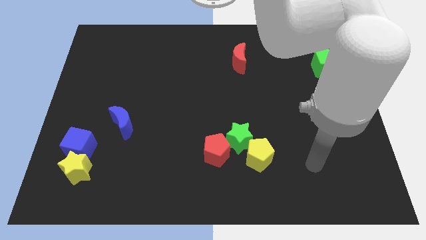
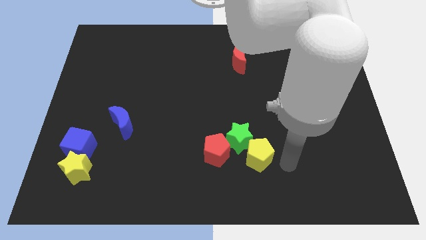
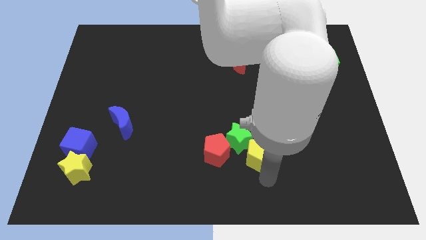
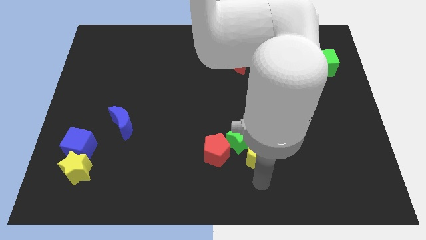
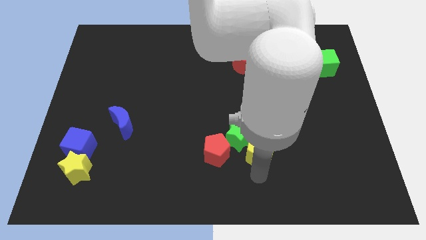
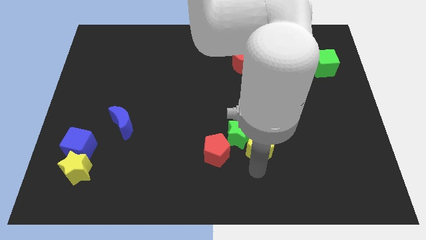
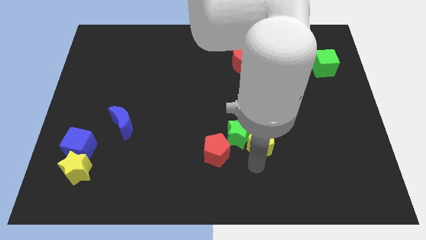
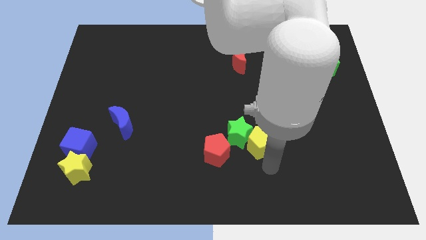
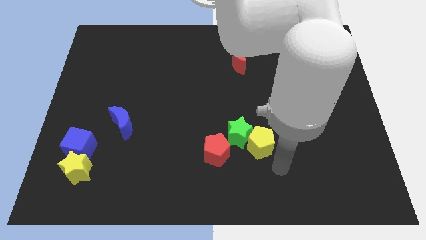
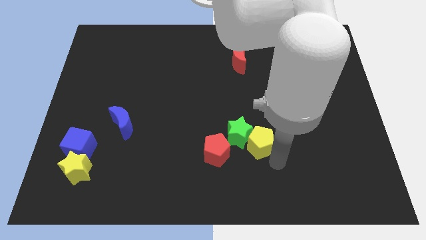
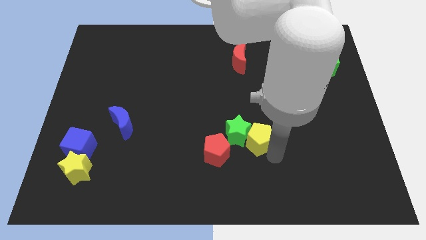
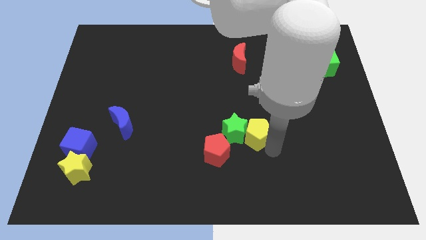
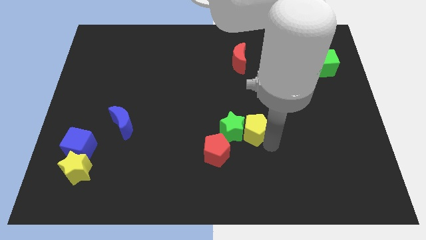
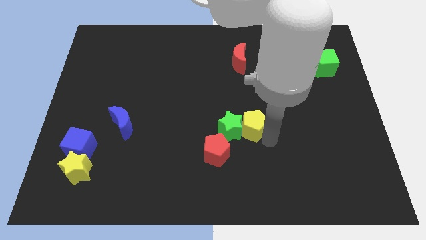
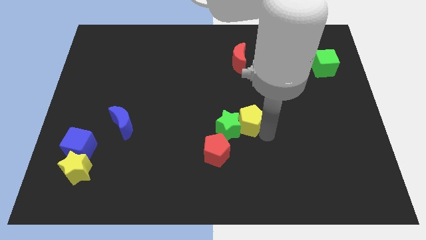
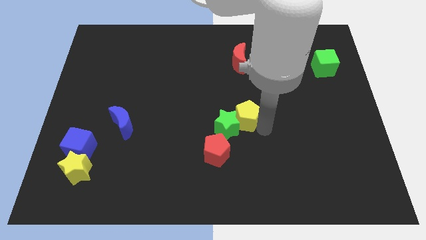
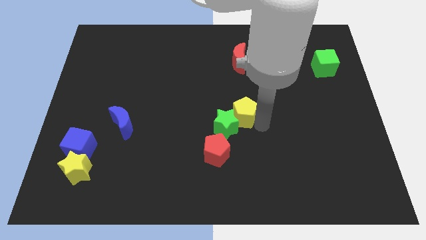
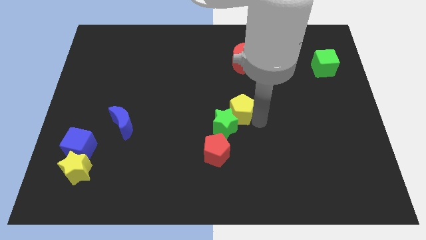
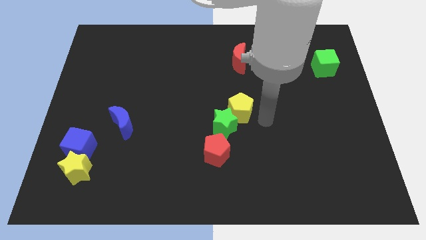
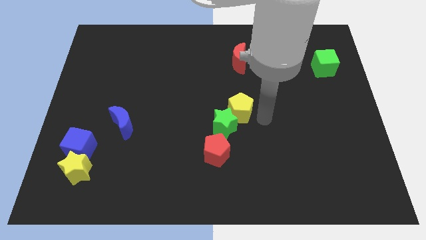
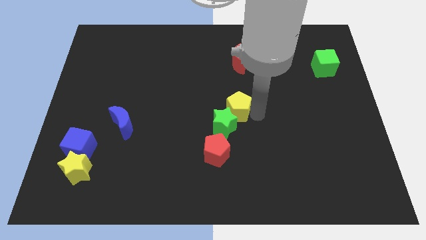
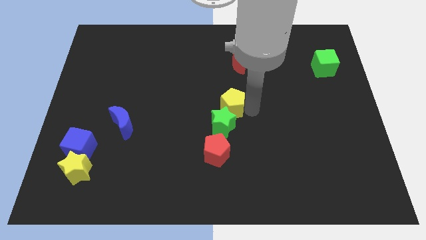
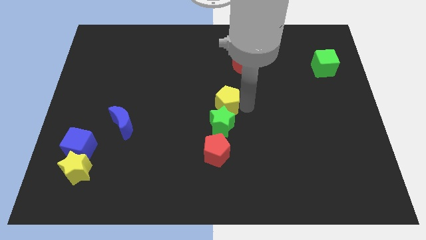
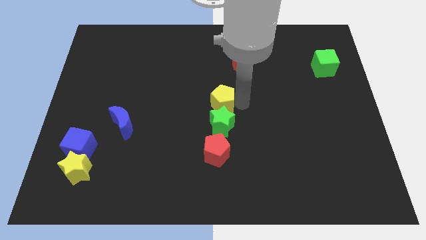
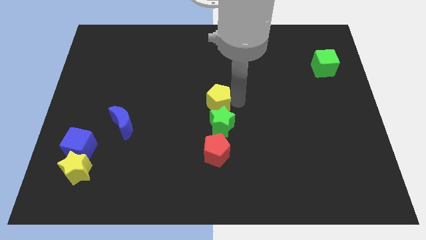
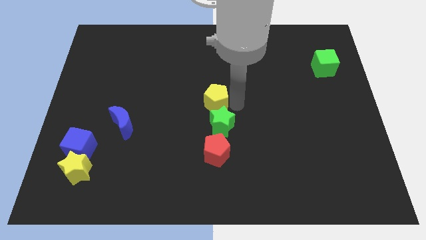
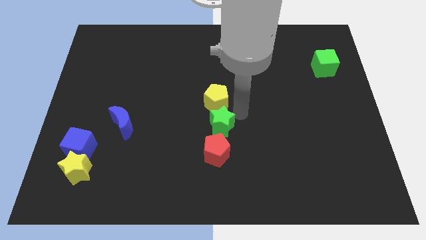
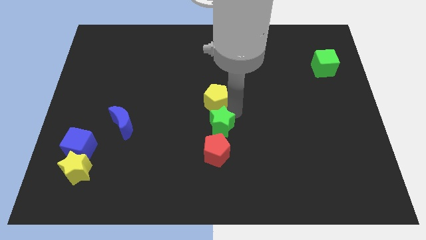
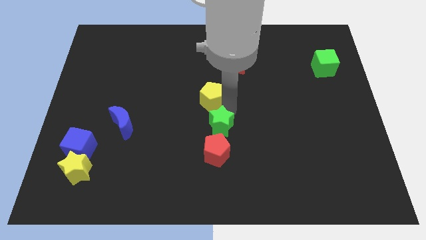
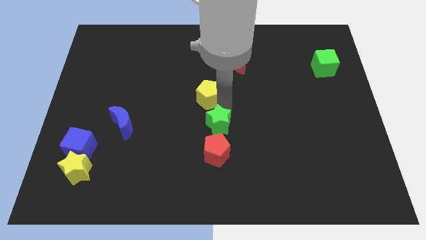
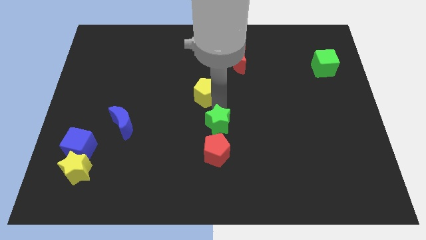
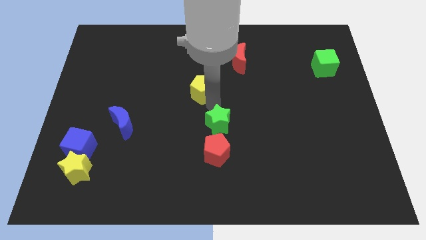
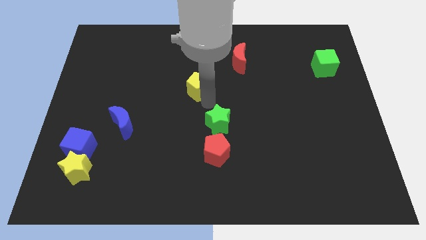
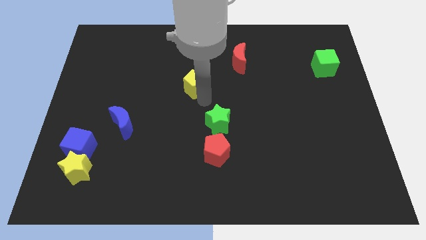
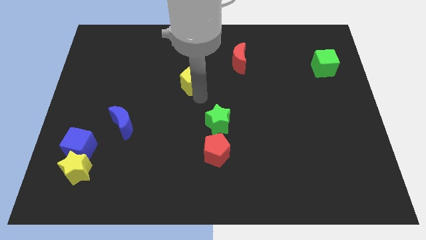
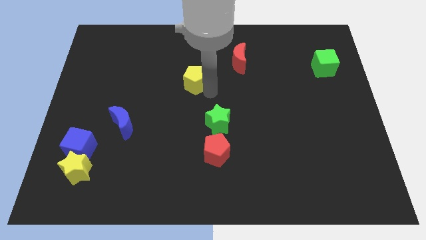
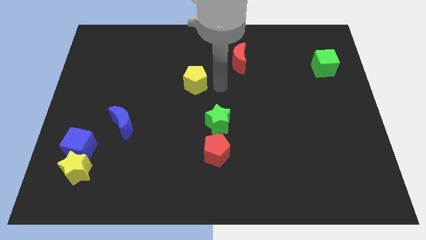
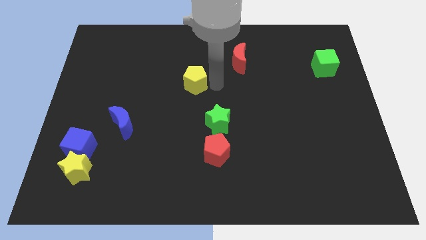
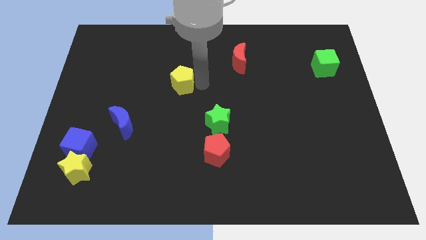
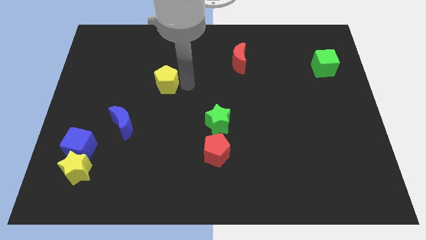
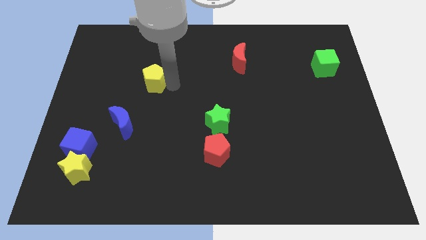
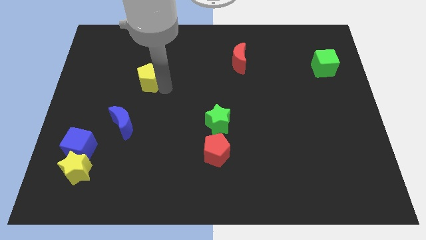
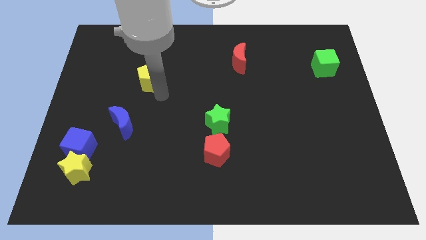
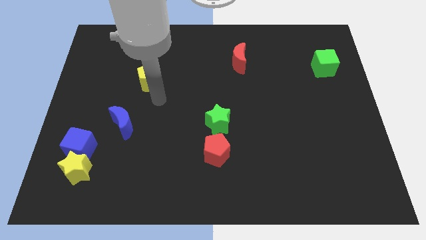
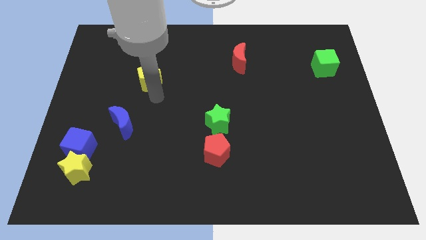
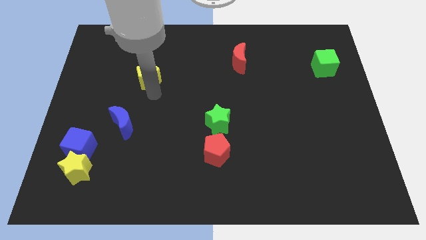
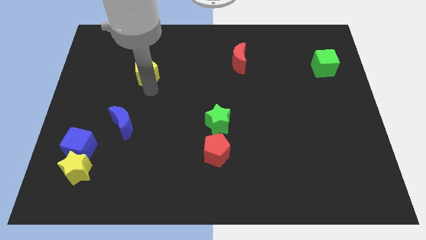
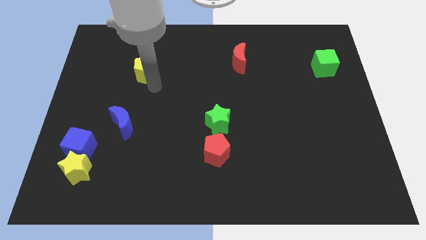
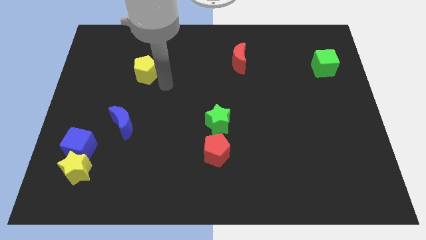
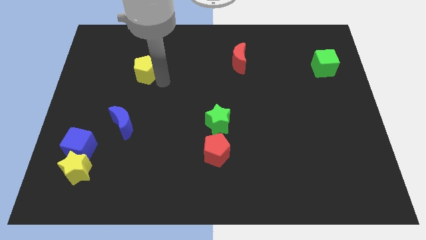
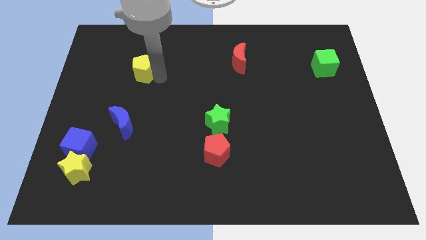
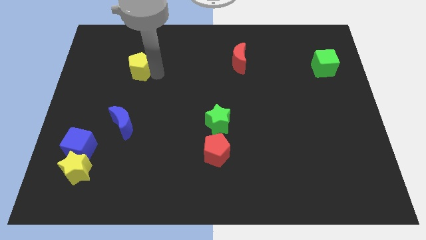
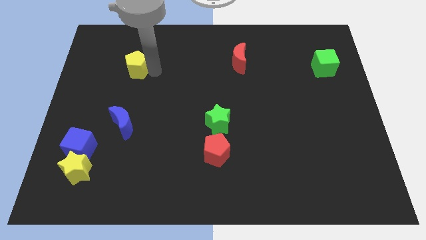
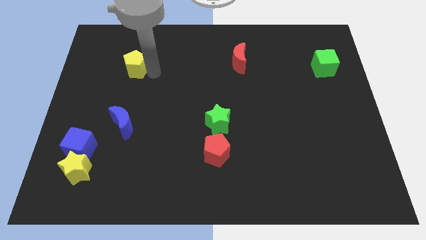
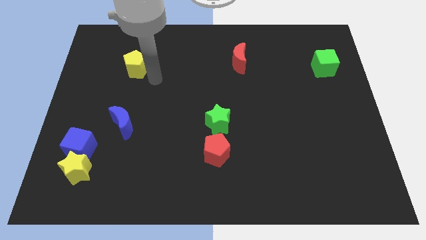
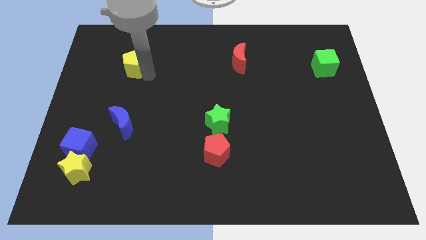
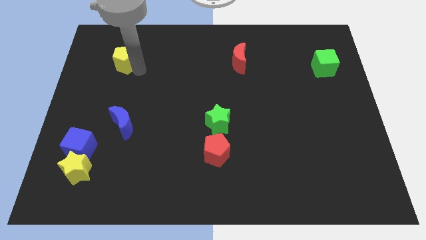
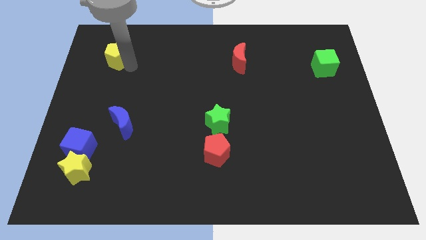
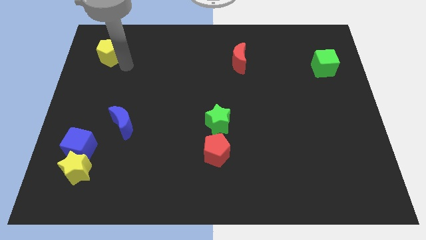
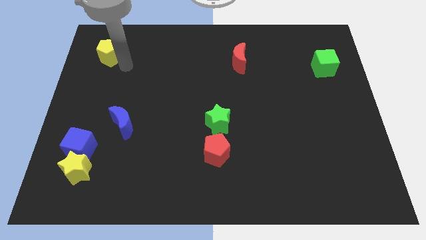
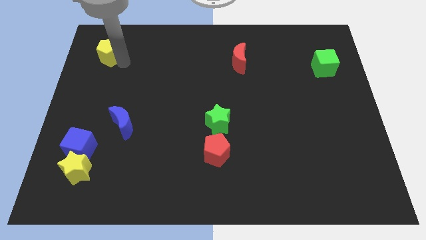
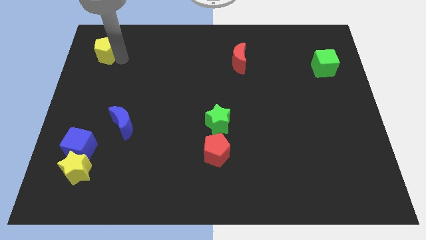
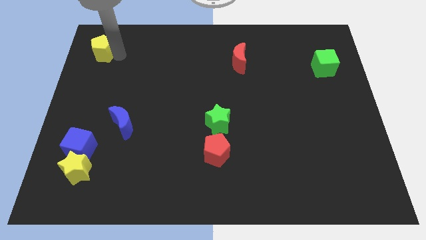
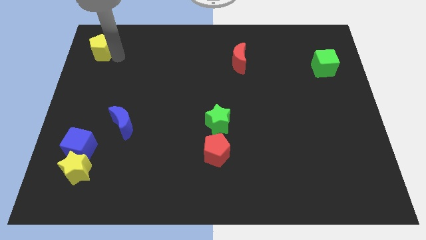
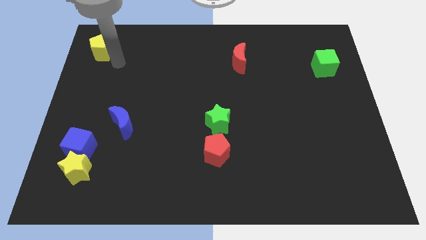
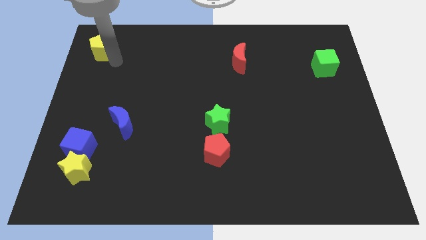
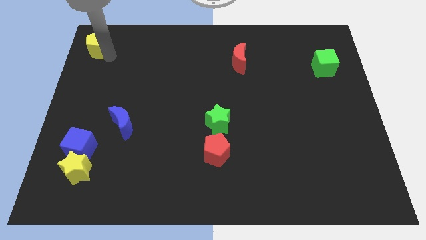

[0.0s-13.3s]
put the yellow pentagon to the top left
